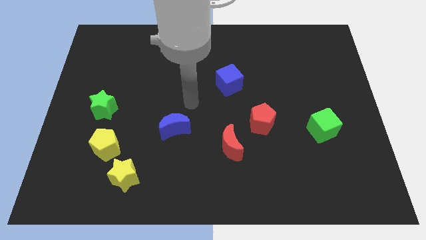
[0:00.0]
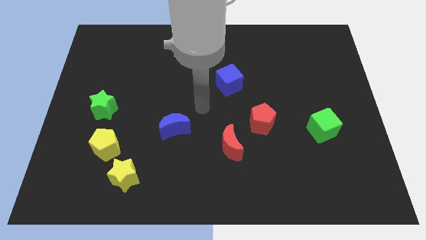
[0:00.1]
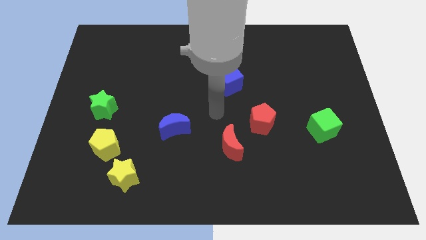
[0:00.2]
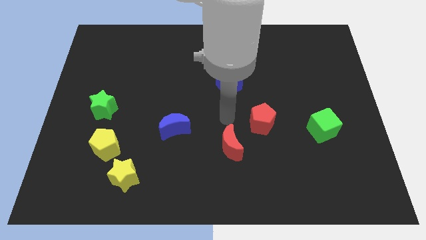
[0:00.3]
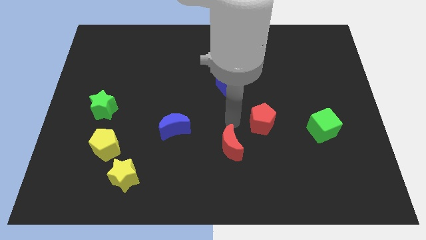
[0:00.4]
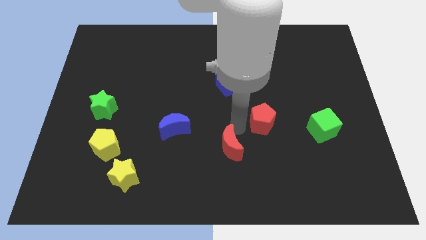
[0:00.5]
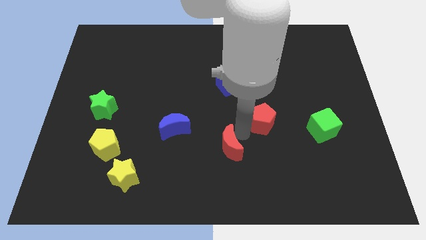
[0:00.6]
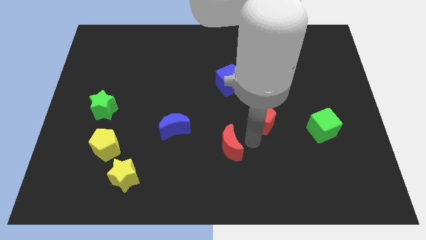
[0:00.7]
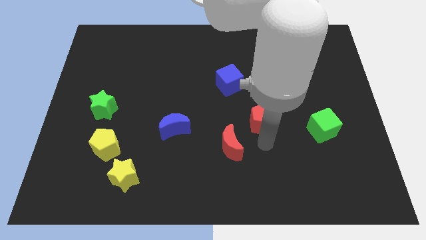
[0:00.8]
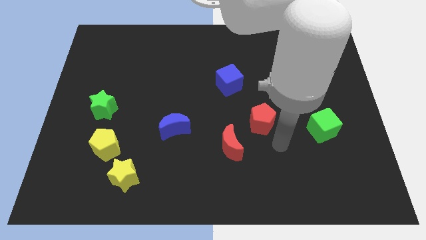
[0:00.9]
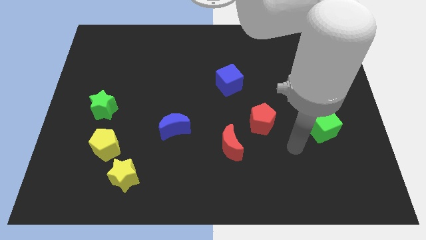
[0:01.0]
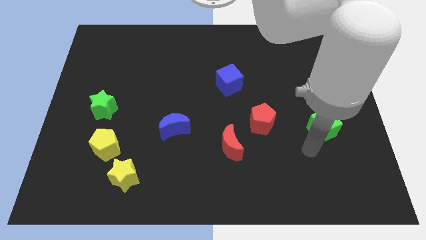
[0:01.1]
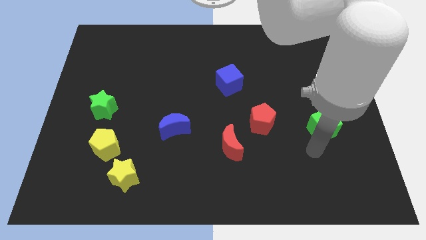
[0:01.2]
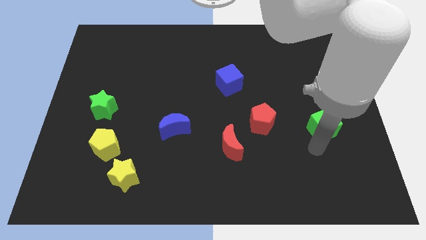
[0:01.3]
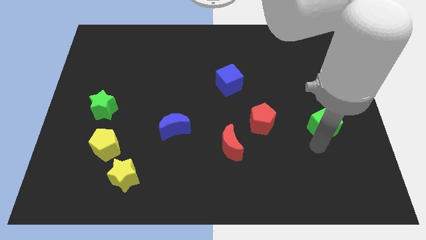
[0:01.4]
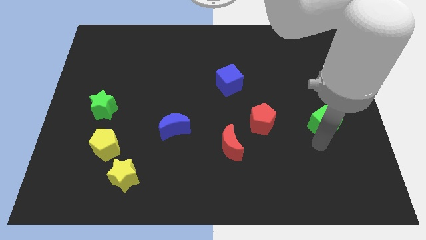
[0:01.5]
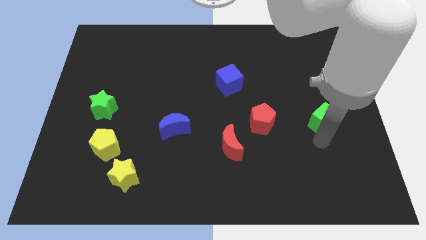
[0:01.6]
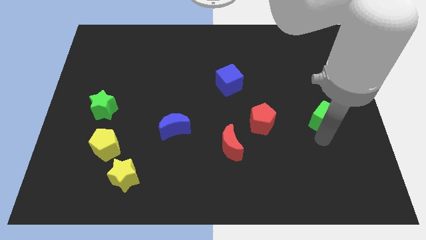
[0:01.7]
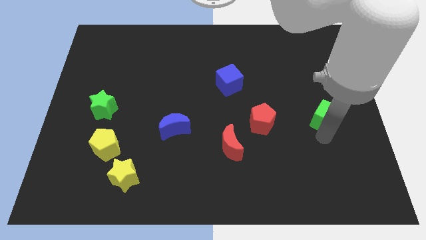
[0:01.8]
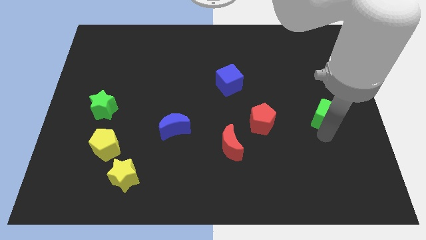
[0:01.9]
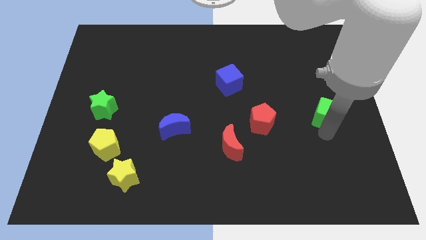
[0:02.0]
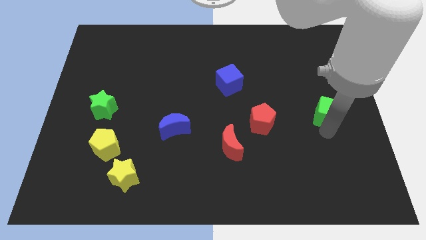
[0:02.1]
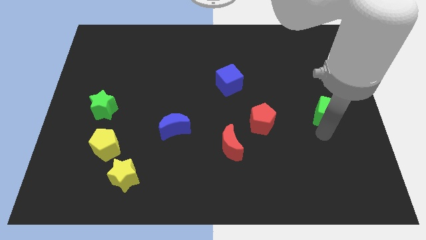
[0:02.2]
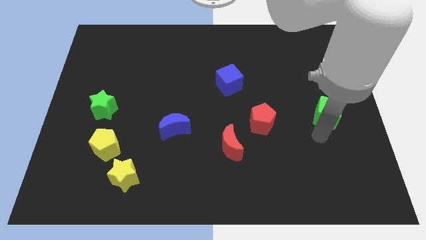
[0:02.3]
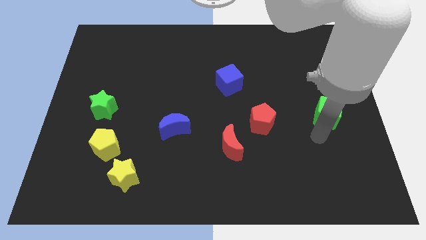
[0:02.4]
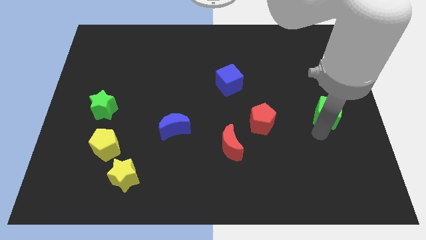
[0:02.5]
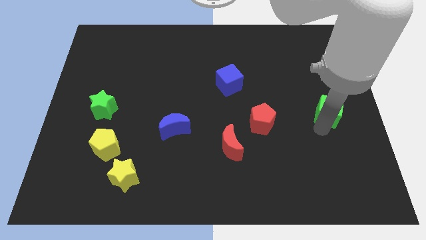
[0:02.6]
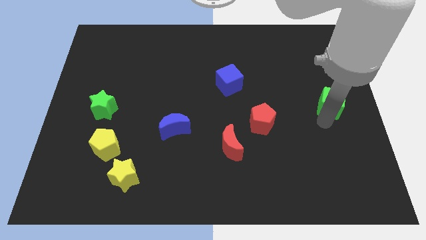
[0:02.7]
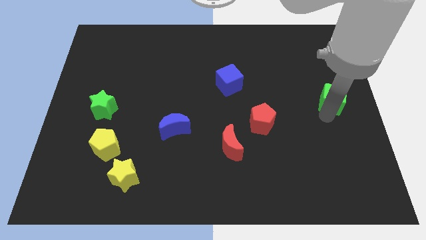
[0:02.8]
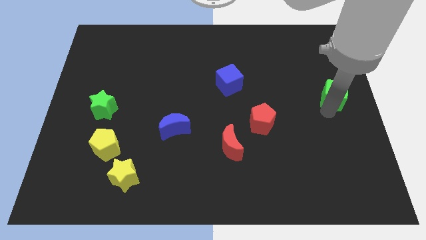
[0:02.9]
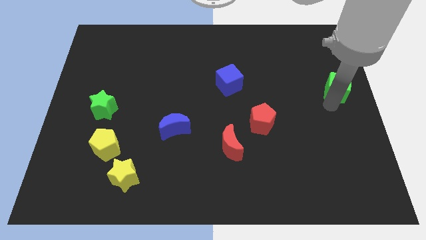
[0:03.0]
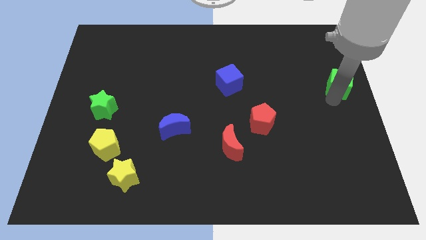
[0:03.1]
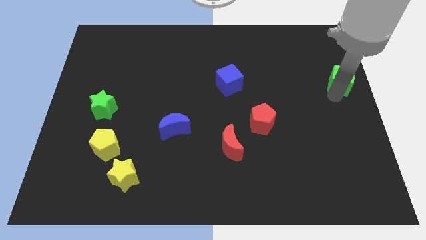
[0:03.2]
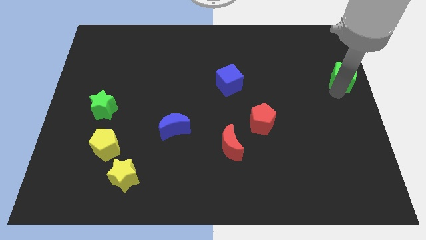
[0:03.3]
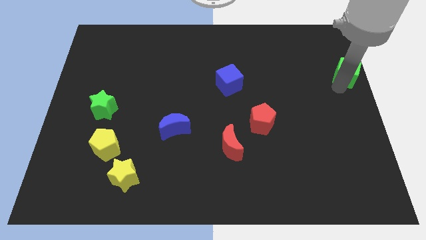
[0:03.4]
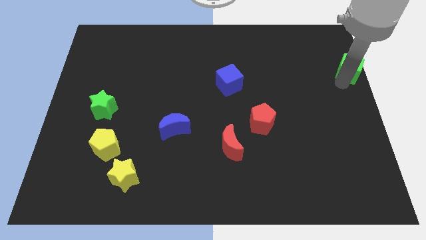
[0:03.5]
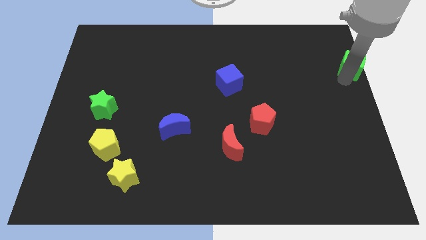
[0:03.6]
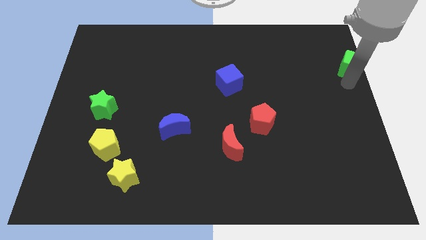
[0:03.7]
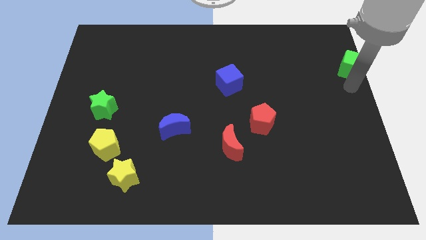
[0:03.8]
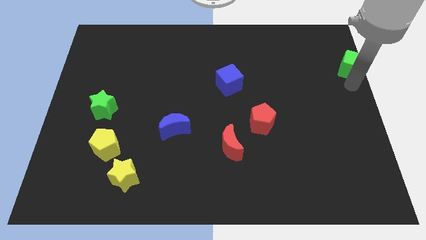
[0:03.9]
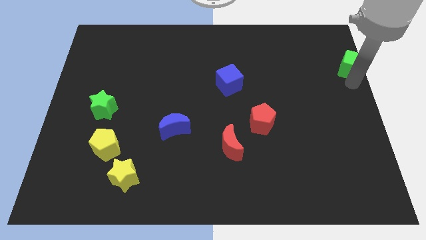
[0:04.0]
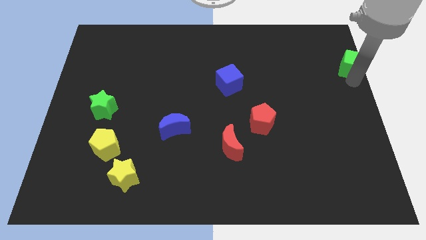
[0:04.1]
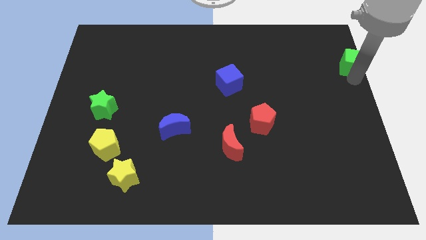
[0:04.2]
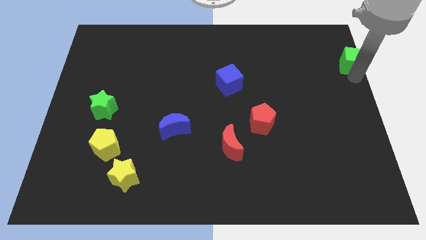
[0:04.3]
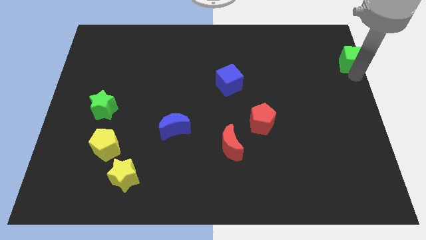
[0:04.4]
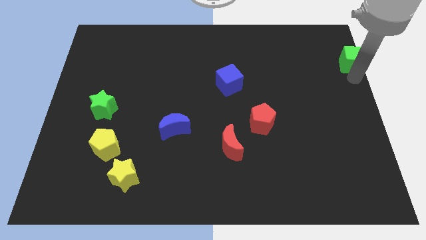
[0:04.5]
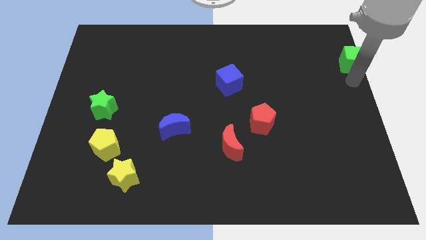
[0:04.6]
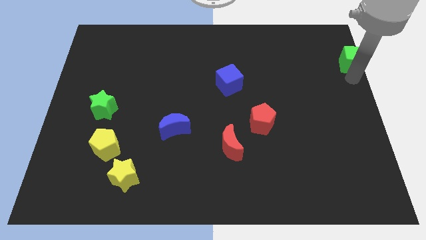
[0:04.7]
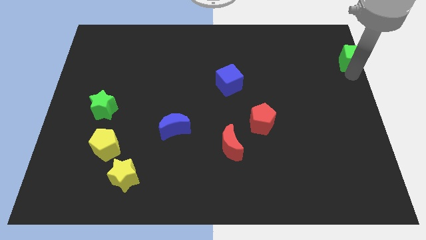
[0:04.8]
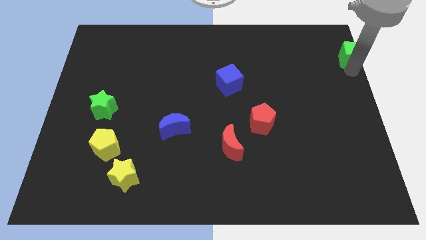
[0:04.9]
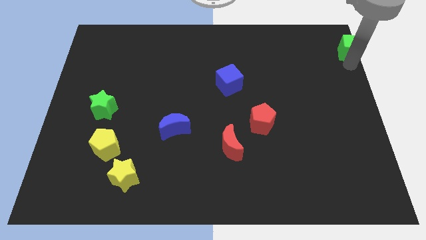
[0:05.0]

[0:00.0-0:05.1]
move the green cube to the top right

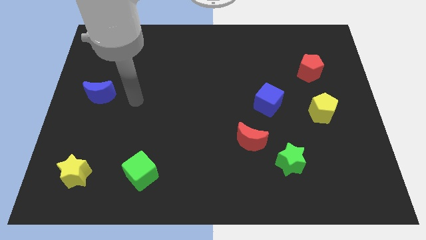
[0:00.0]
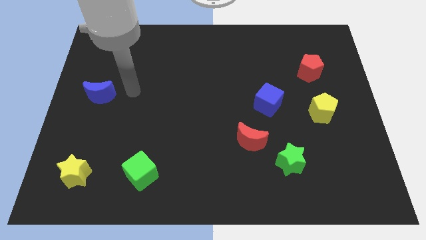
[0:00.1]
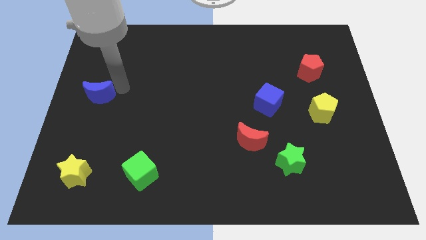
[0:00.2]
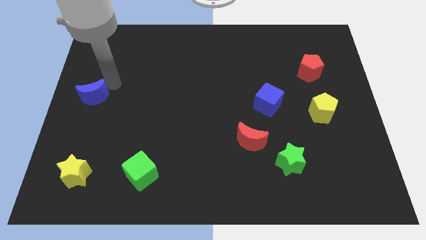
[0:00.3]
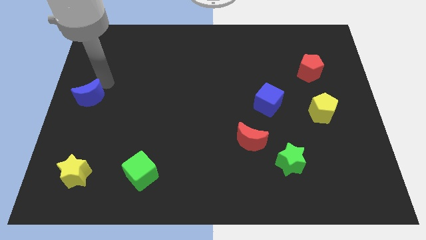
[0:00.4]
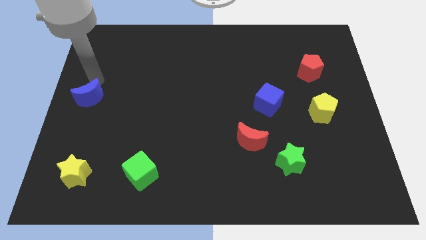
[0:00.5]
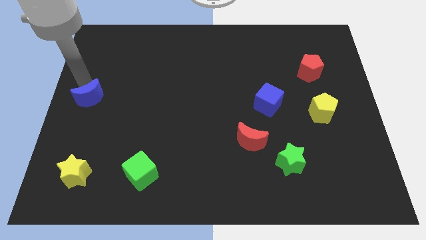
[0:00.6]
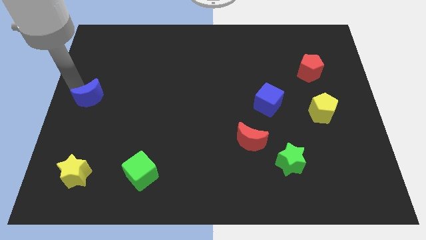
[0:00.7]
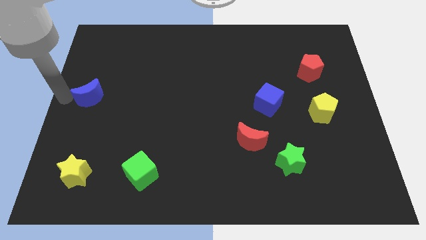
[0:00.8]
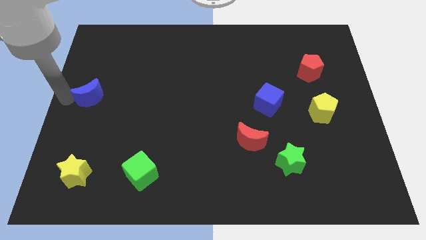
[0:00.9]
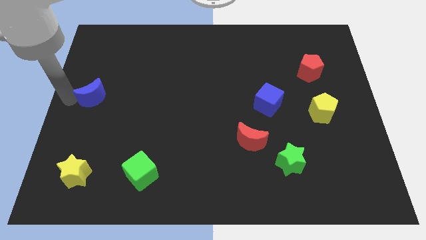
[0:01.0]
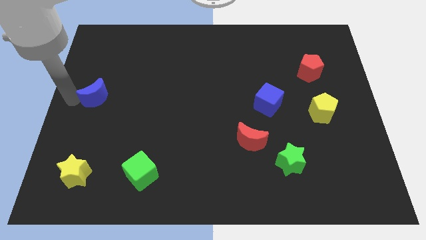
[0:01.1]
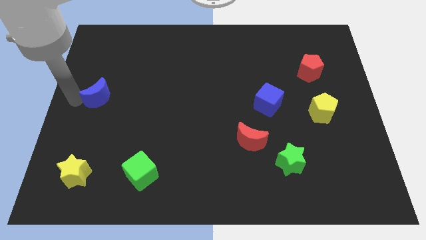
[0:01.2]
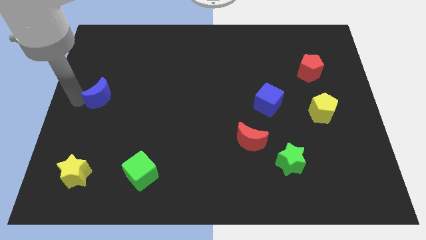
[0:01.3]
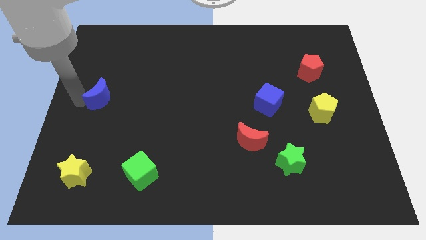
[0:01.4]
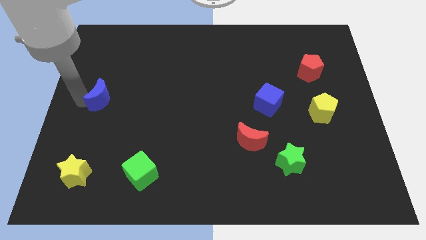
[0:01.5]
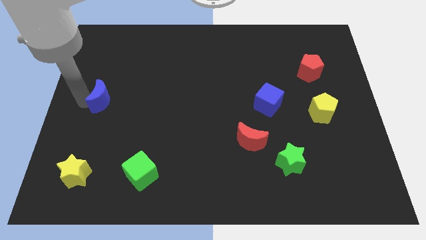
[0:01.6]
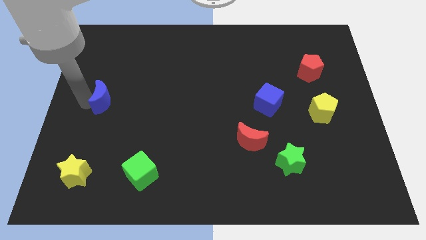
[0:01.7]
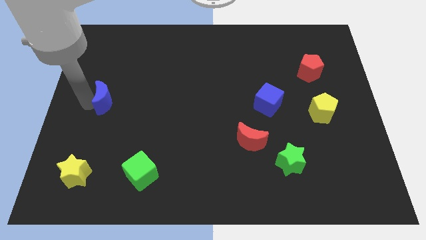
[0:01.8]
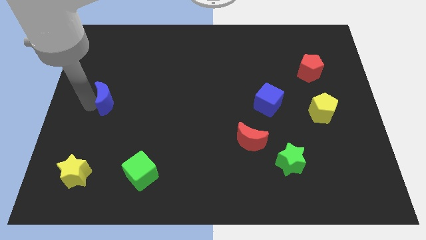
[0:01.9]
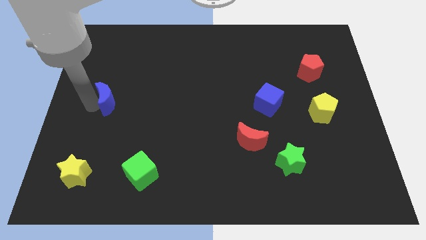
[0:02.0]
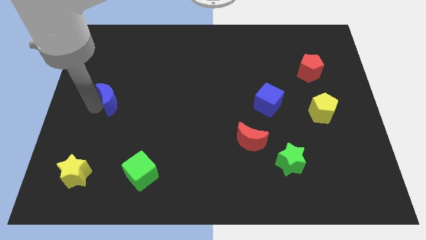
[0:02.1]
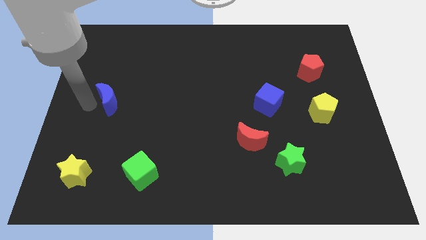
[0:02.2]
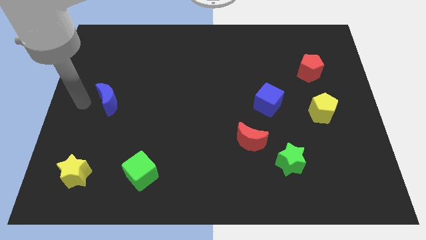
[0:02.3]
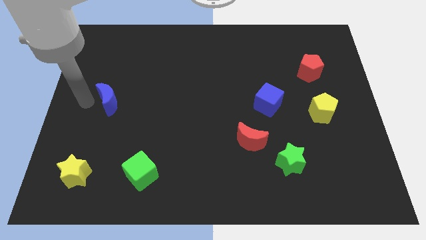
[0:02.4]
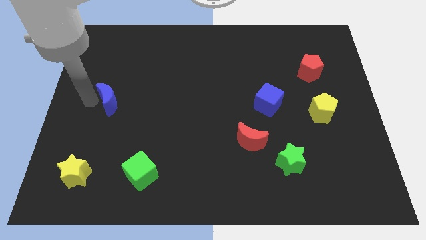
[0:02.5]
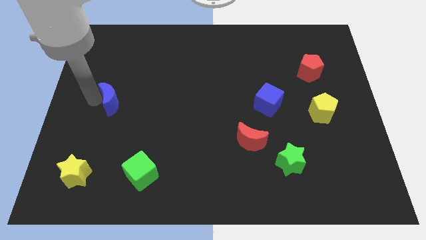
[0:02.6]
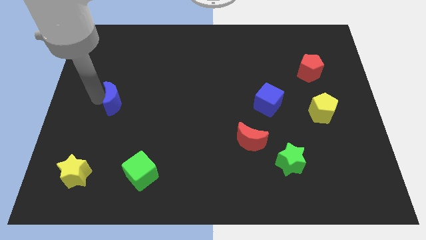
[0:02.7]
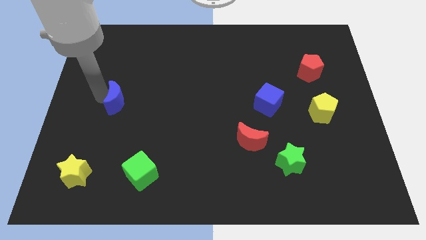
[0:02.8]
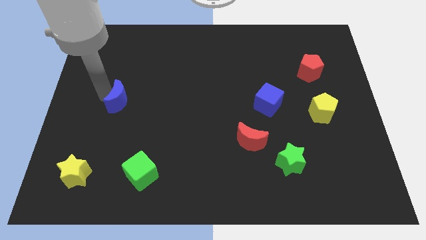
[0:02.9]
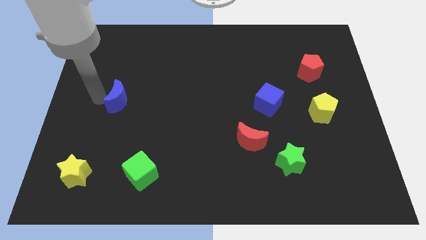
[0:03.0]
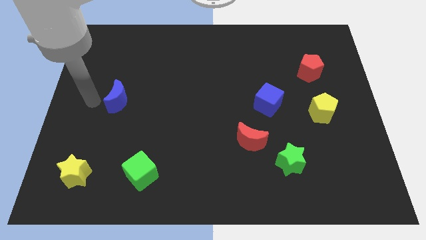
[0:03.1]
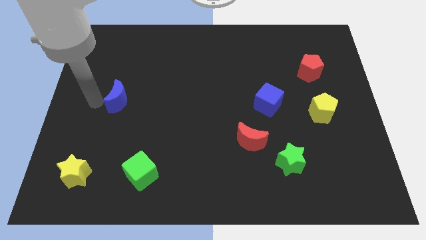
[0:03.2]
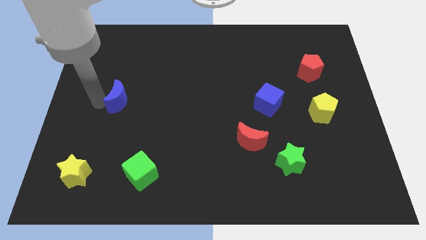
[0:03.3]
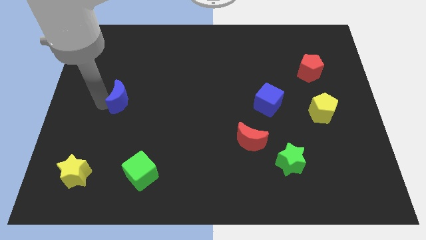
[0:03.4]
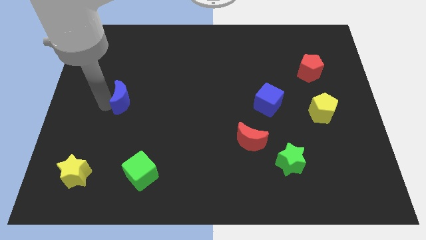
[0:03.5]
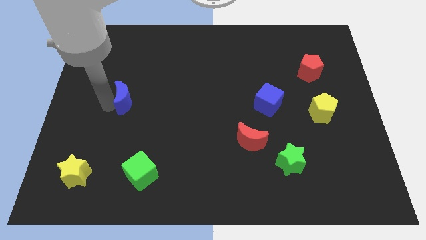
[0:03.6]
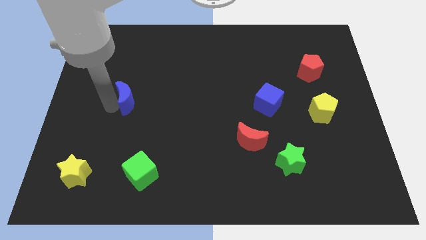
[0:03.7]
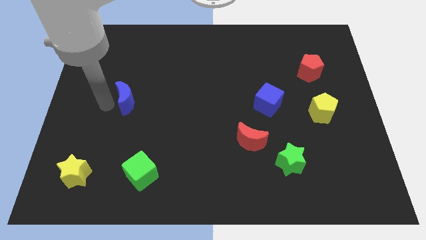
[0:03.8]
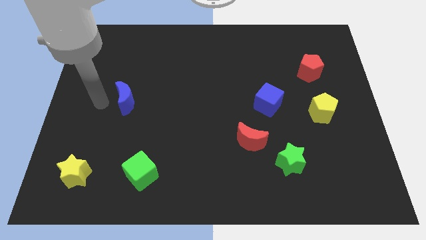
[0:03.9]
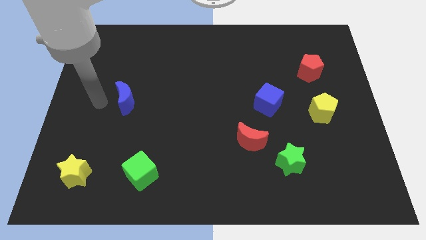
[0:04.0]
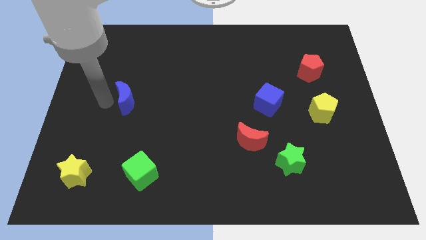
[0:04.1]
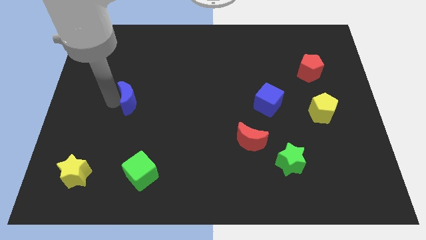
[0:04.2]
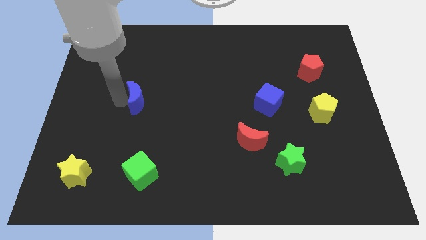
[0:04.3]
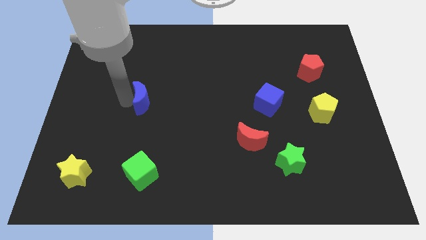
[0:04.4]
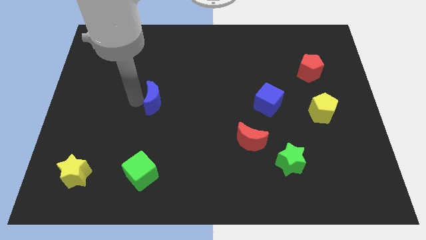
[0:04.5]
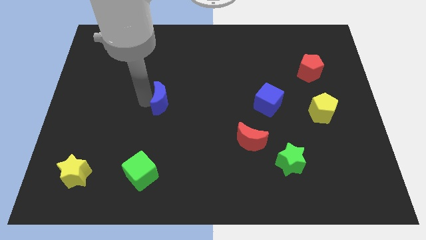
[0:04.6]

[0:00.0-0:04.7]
slide the blue moon to the center of the board
